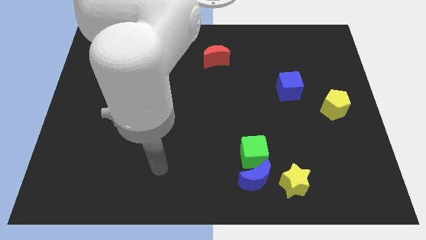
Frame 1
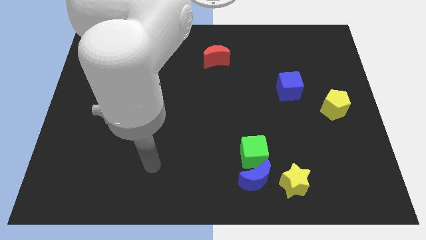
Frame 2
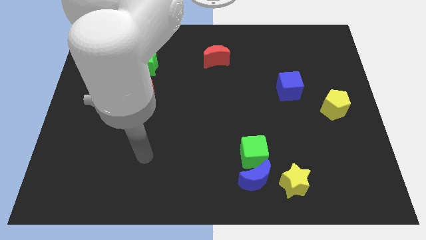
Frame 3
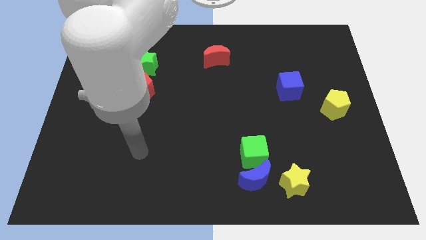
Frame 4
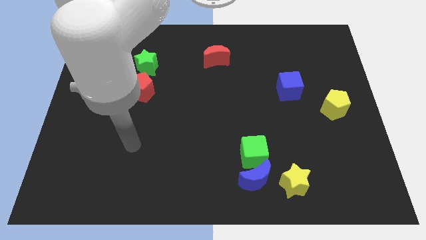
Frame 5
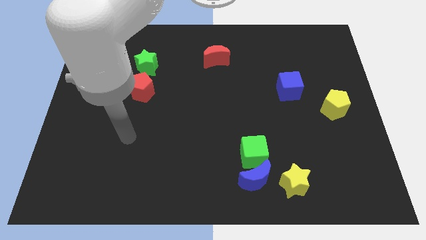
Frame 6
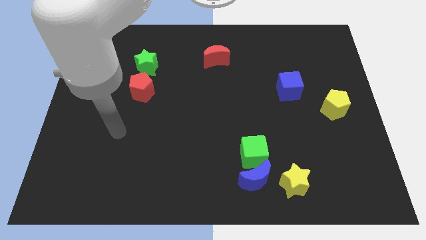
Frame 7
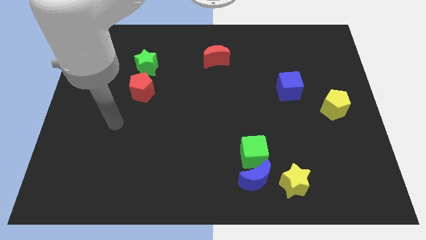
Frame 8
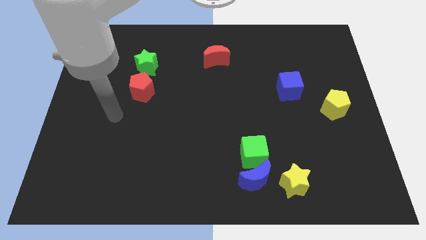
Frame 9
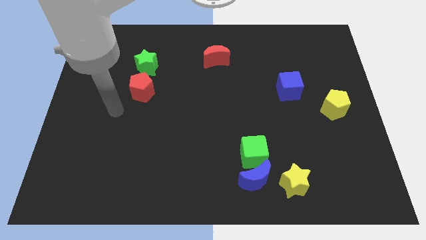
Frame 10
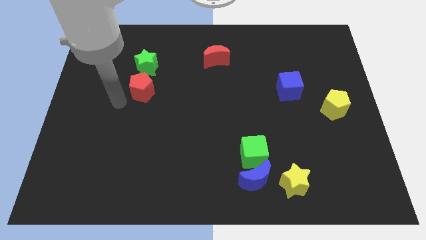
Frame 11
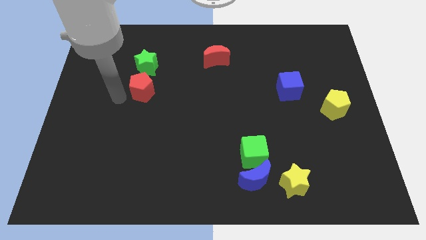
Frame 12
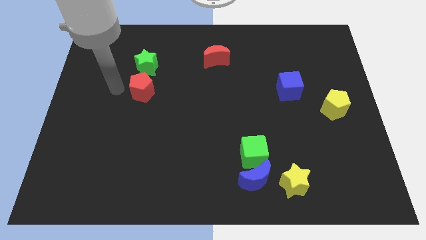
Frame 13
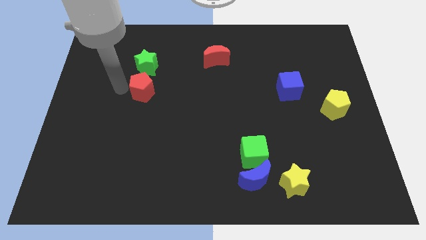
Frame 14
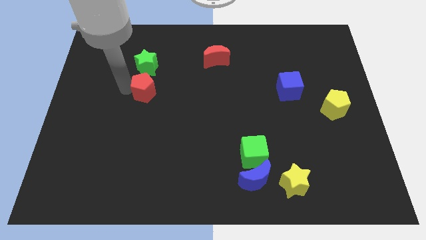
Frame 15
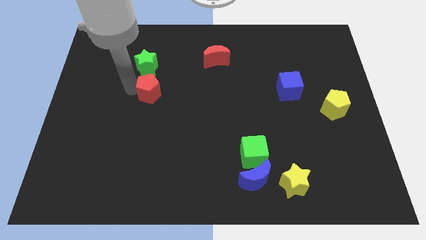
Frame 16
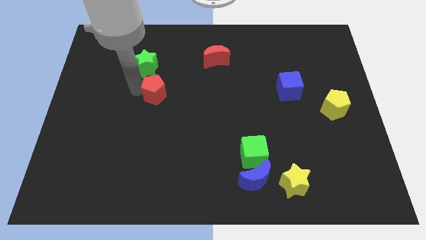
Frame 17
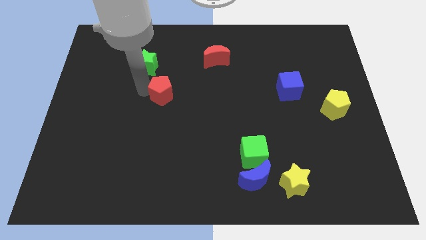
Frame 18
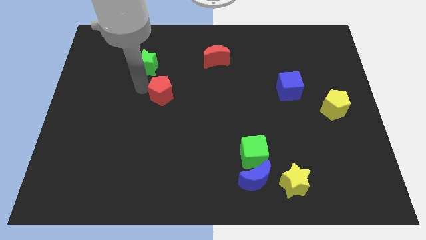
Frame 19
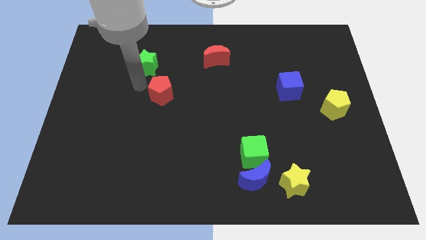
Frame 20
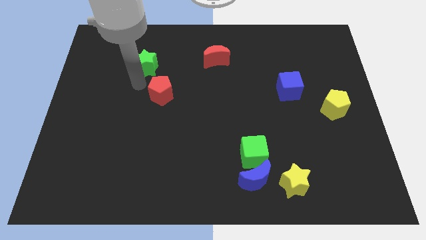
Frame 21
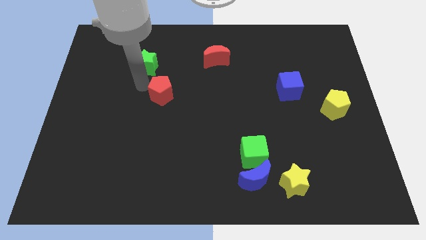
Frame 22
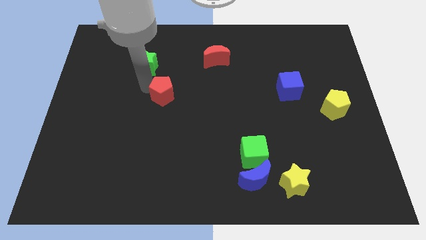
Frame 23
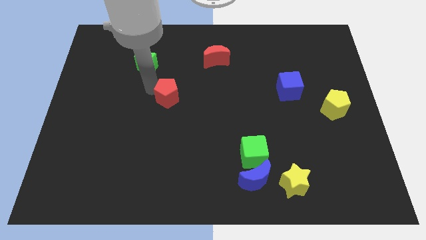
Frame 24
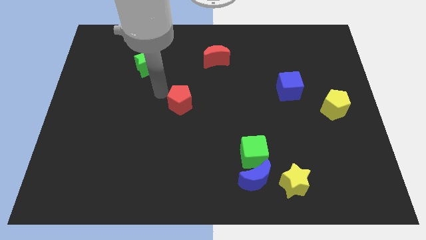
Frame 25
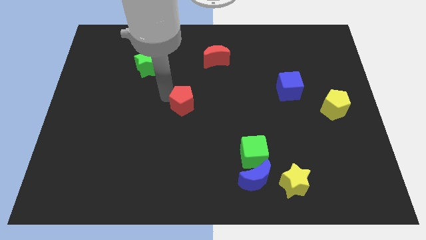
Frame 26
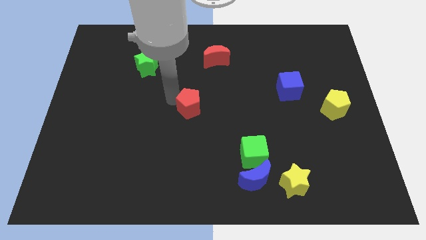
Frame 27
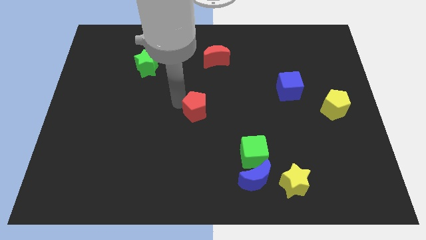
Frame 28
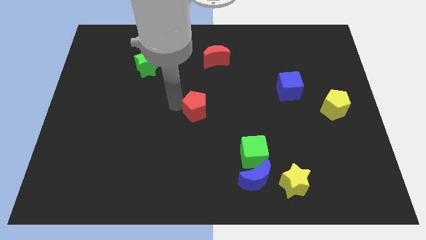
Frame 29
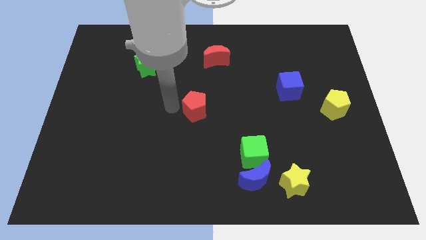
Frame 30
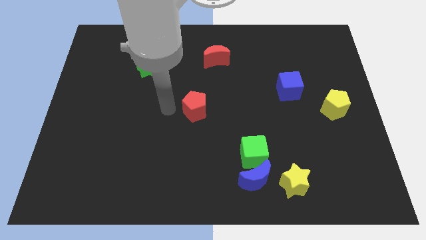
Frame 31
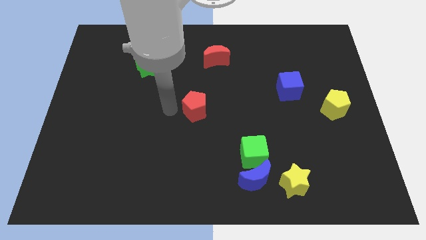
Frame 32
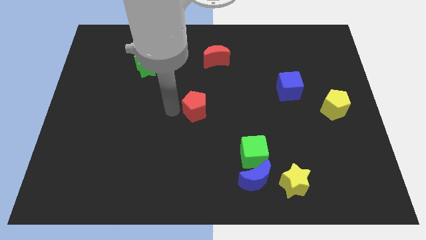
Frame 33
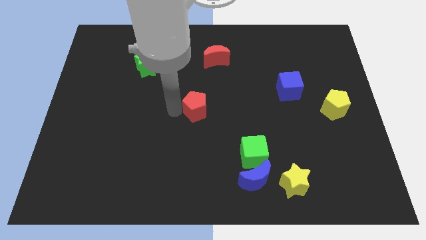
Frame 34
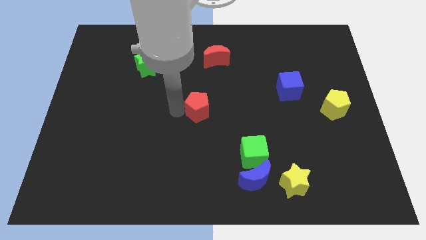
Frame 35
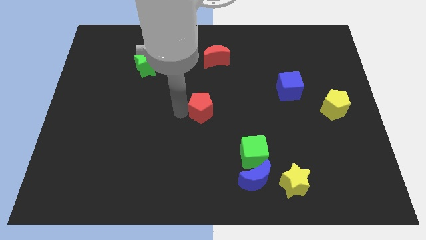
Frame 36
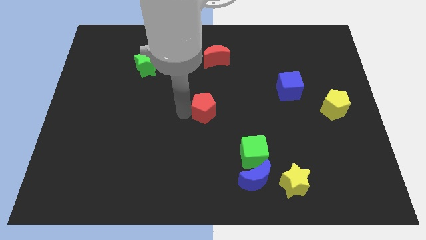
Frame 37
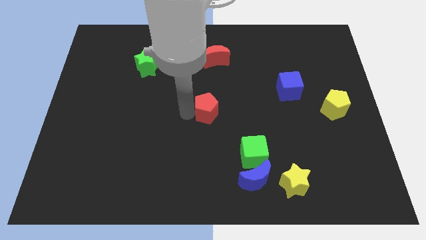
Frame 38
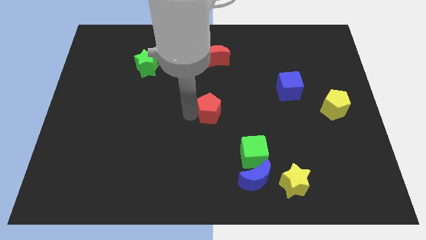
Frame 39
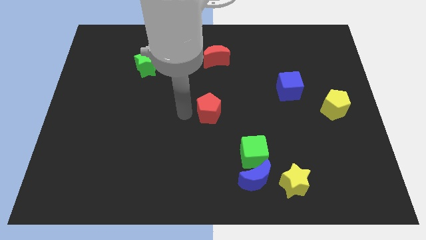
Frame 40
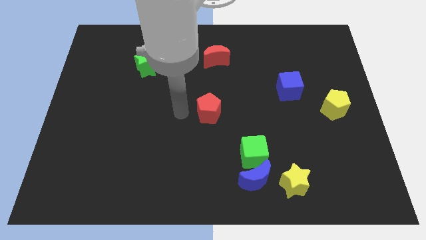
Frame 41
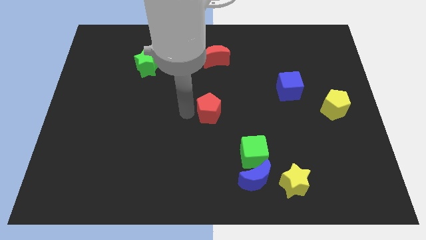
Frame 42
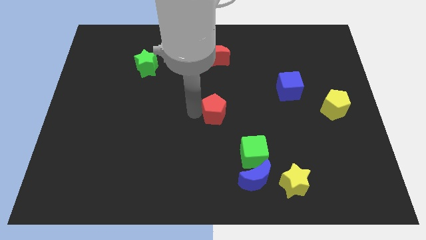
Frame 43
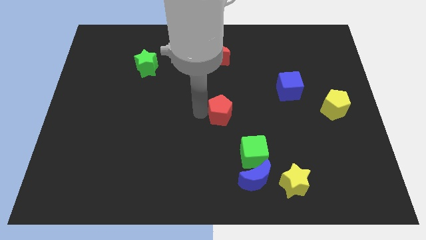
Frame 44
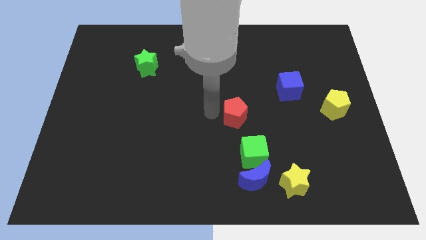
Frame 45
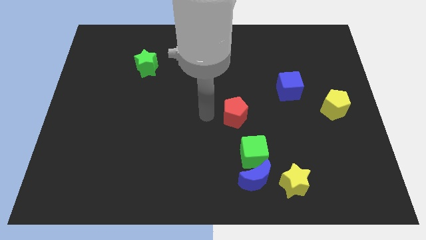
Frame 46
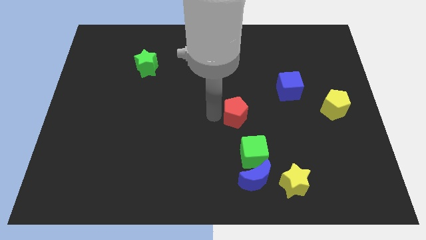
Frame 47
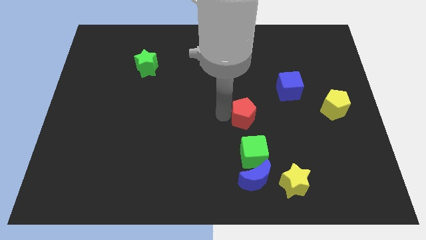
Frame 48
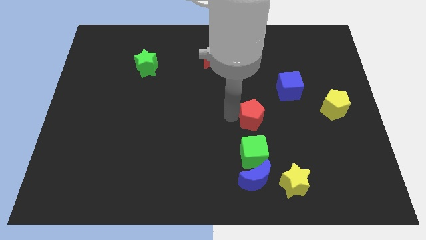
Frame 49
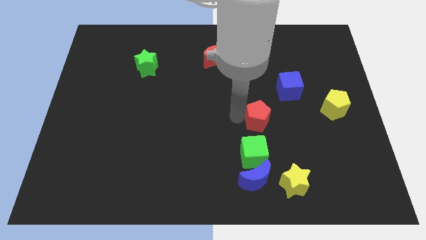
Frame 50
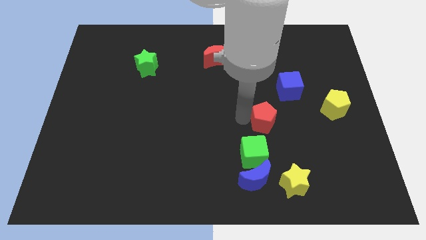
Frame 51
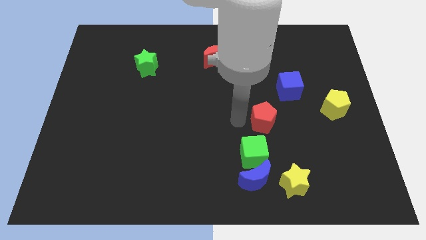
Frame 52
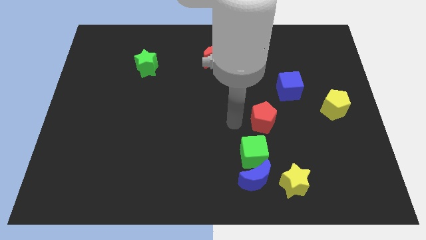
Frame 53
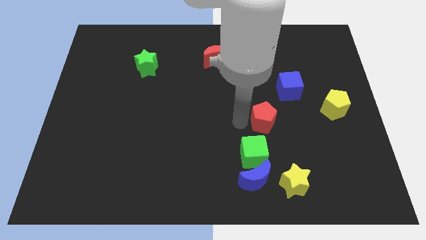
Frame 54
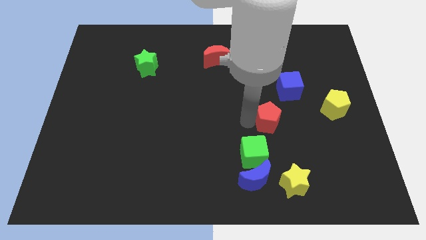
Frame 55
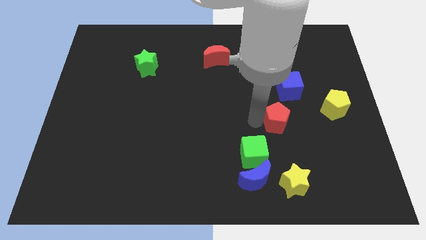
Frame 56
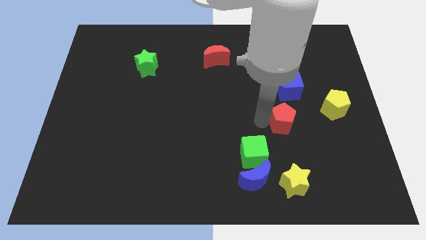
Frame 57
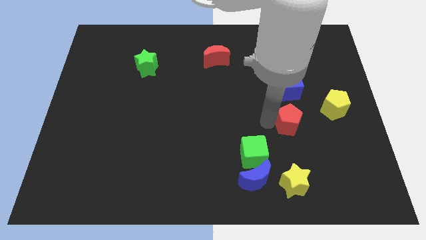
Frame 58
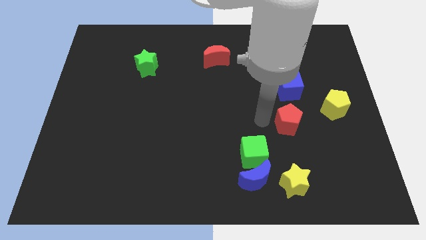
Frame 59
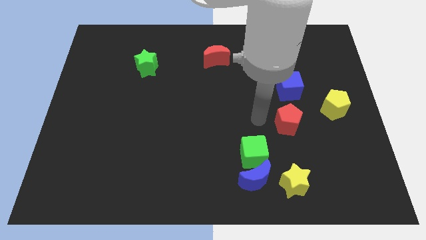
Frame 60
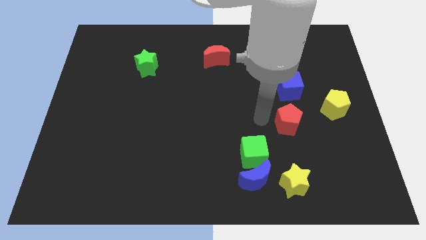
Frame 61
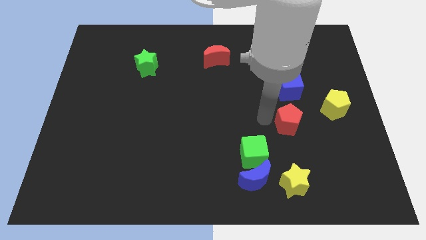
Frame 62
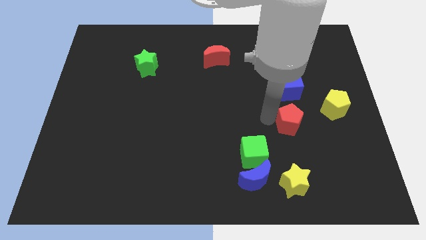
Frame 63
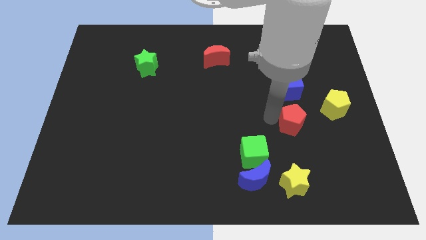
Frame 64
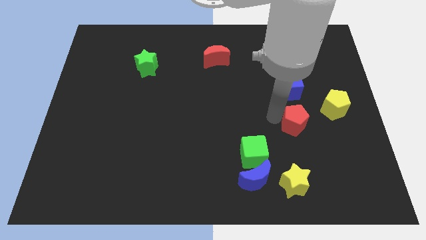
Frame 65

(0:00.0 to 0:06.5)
put the red pentagon to the bottom left side of the yellow pentagon
